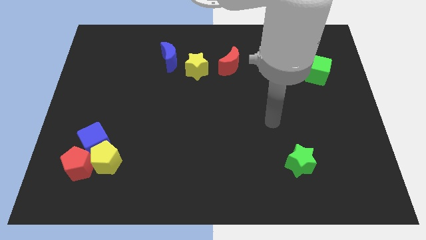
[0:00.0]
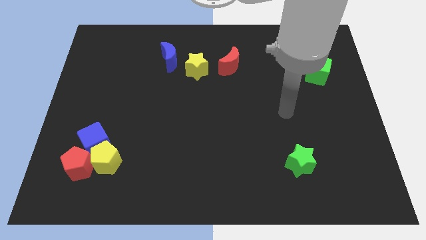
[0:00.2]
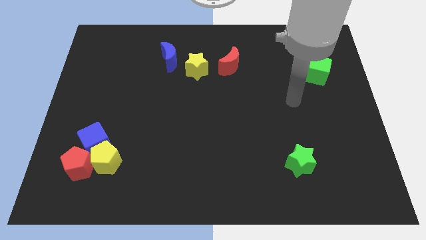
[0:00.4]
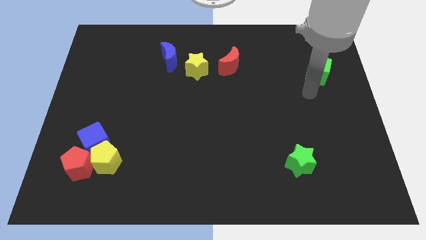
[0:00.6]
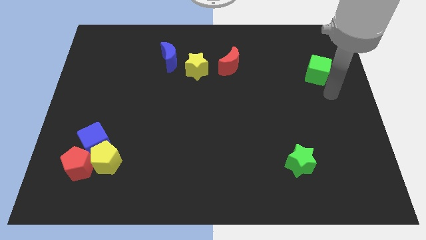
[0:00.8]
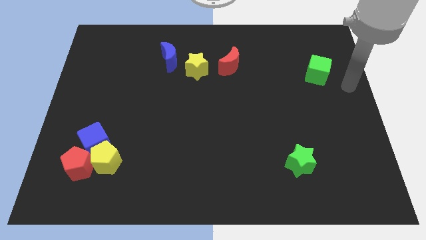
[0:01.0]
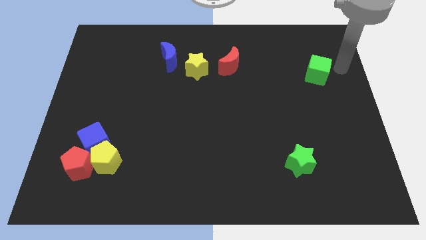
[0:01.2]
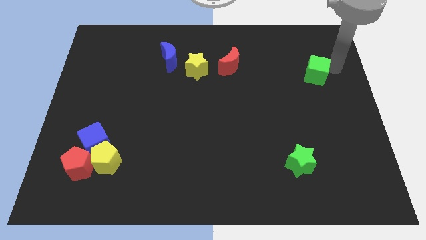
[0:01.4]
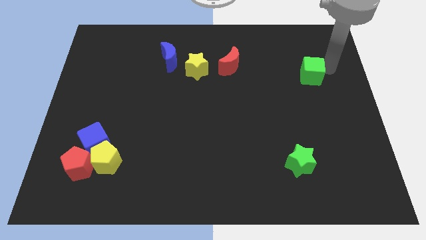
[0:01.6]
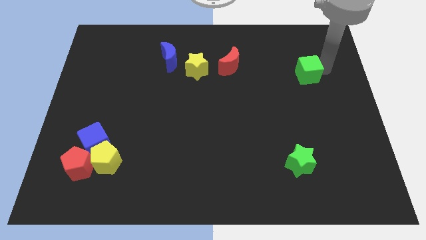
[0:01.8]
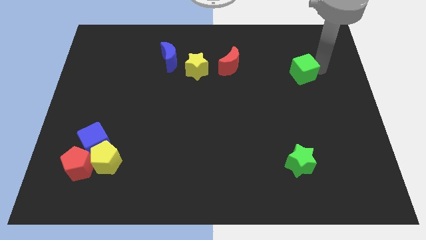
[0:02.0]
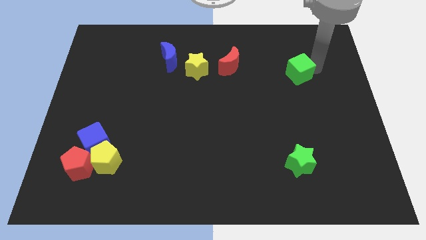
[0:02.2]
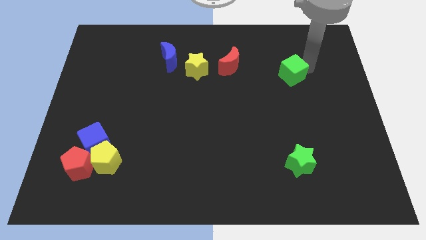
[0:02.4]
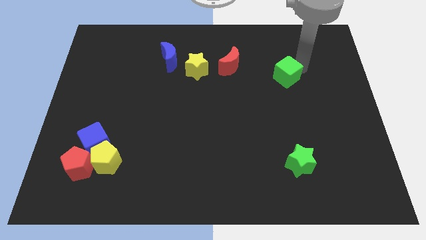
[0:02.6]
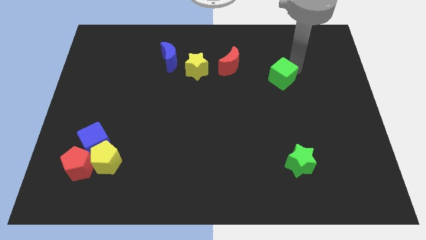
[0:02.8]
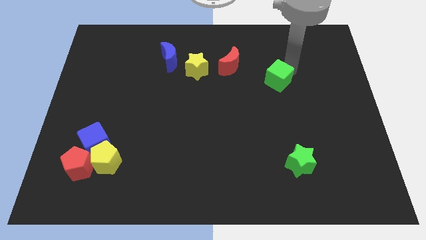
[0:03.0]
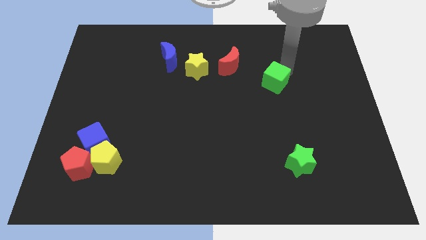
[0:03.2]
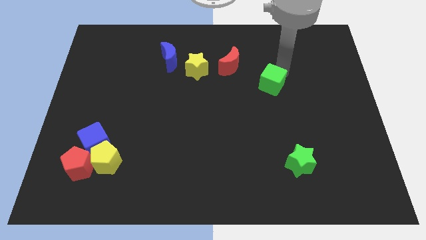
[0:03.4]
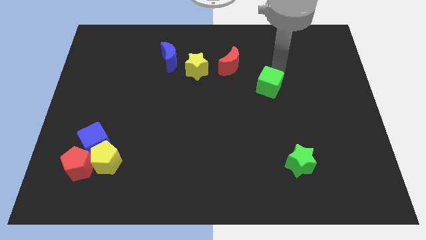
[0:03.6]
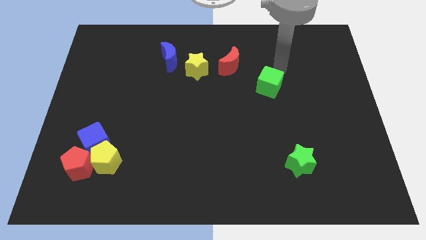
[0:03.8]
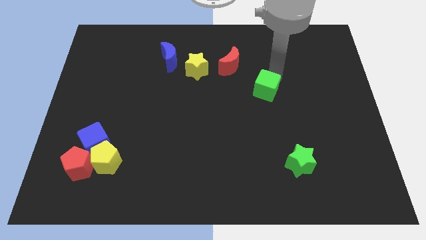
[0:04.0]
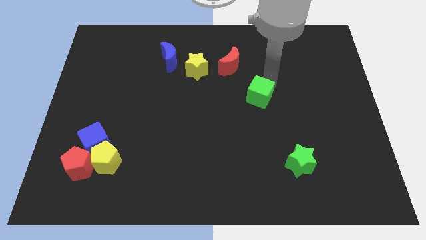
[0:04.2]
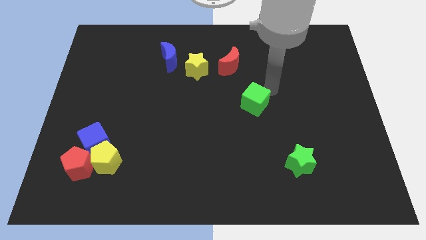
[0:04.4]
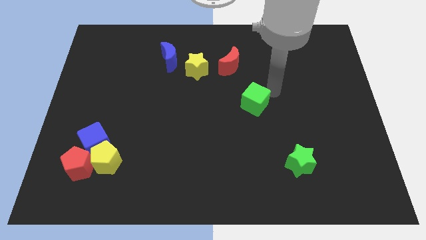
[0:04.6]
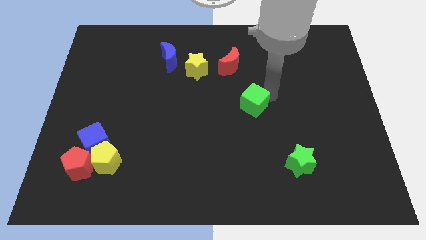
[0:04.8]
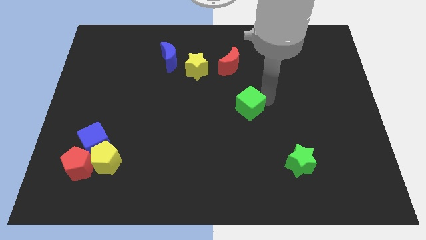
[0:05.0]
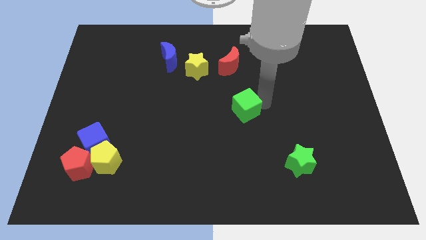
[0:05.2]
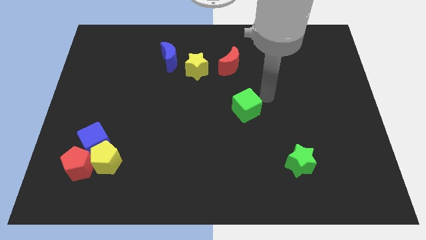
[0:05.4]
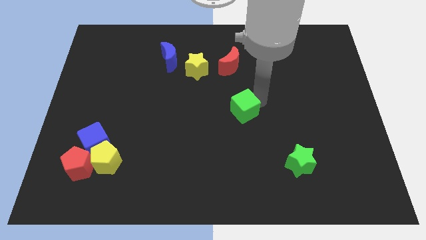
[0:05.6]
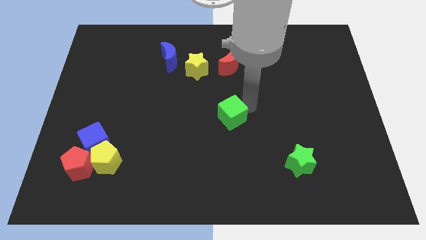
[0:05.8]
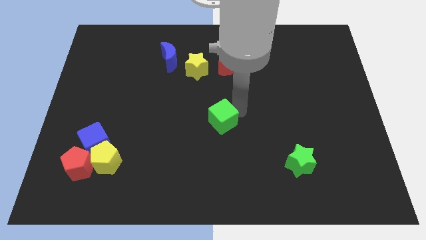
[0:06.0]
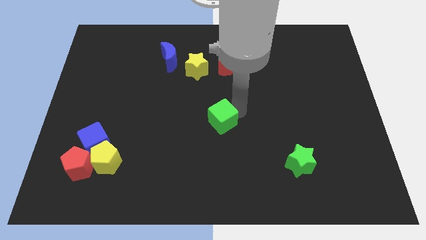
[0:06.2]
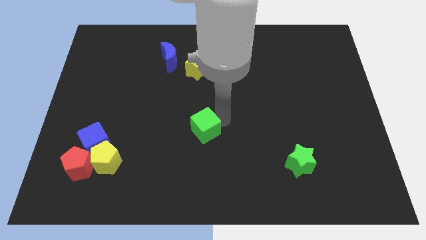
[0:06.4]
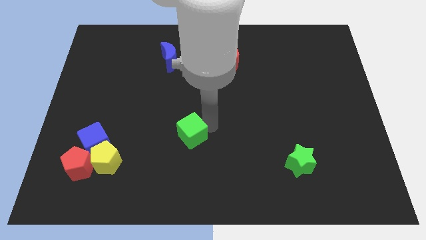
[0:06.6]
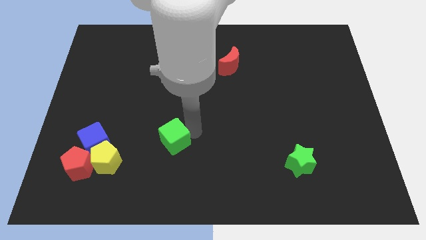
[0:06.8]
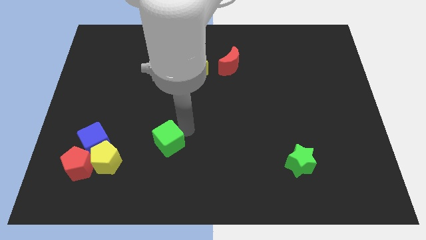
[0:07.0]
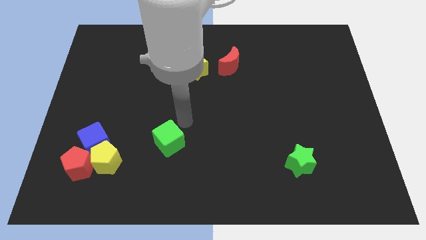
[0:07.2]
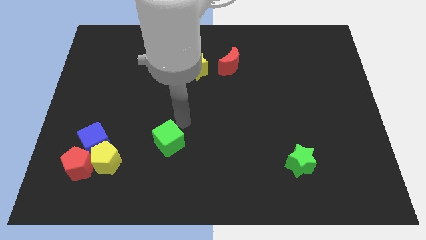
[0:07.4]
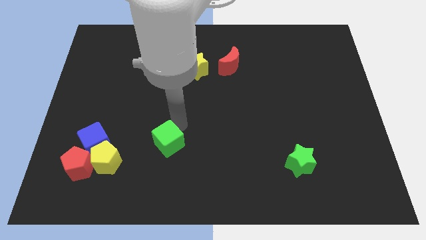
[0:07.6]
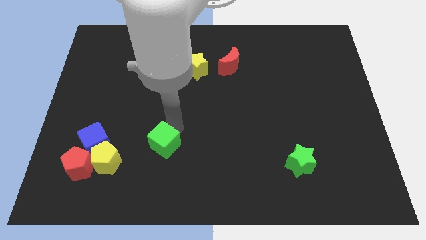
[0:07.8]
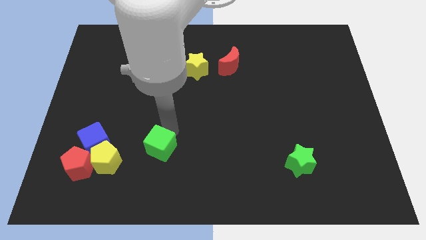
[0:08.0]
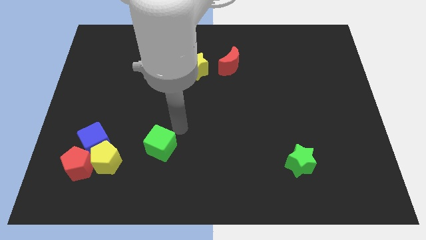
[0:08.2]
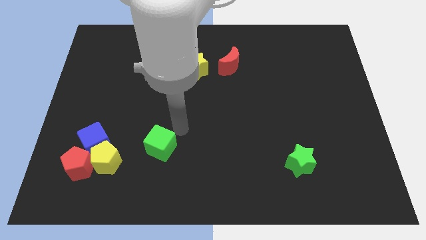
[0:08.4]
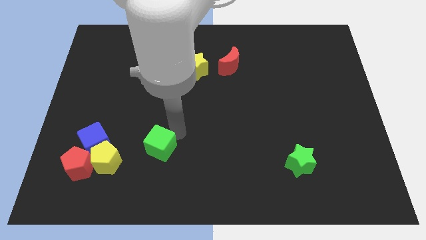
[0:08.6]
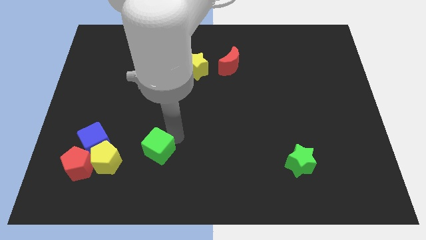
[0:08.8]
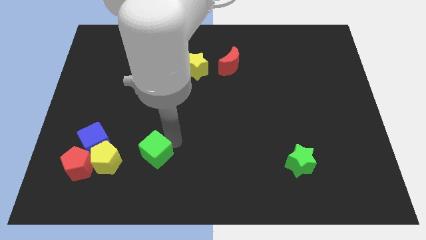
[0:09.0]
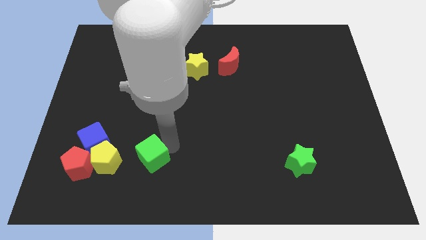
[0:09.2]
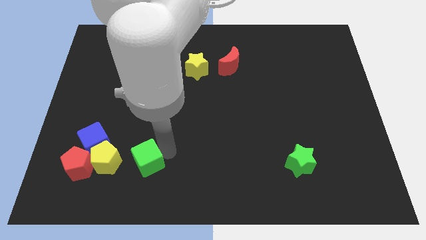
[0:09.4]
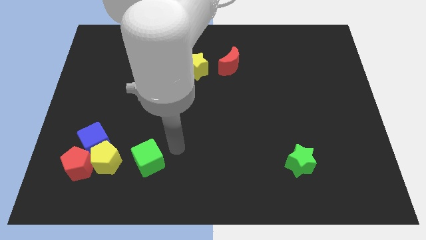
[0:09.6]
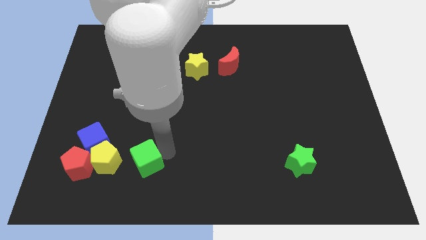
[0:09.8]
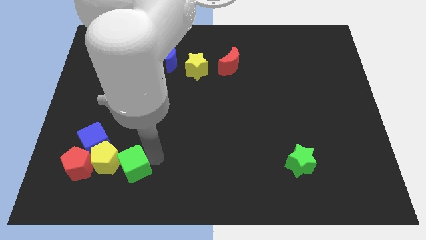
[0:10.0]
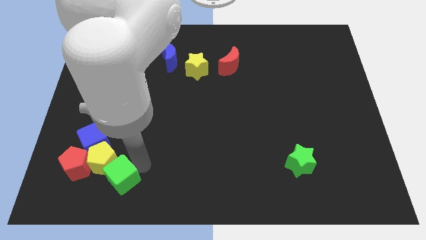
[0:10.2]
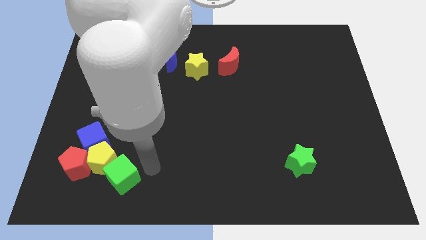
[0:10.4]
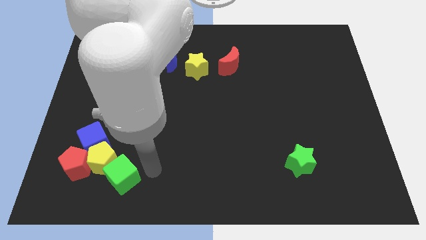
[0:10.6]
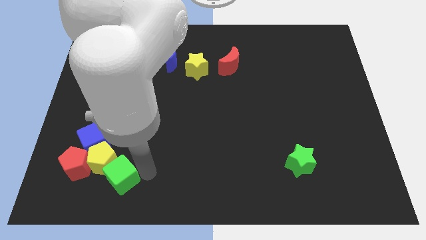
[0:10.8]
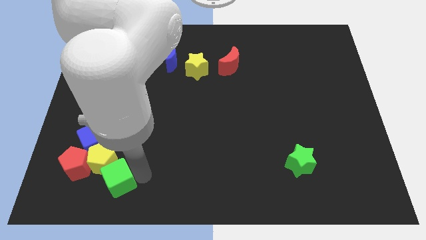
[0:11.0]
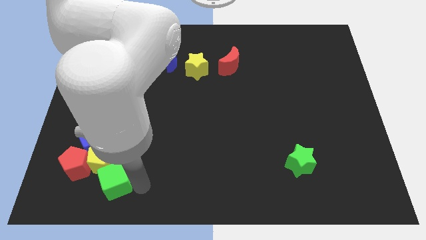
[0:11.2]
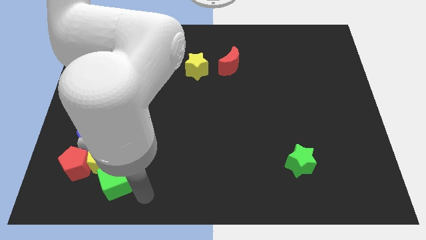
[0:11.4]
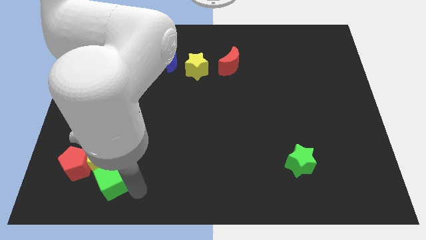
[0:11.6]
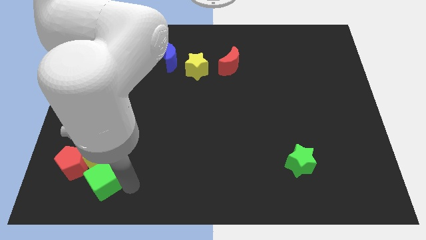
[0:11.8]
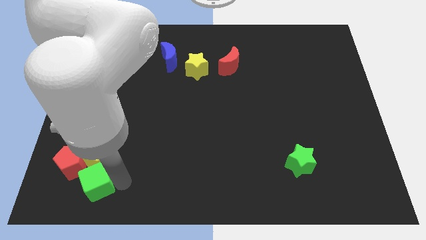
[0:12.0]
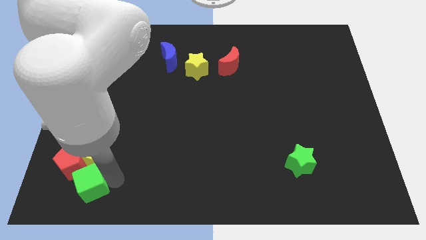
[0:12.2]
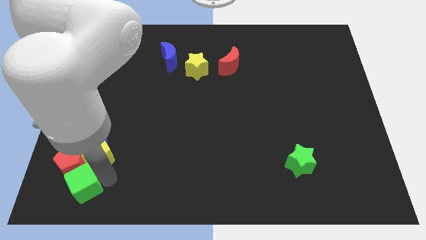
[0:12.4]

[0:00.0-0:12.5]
push the green cube next to the red pentagon

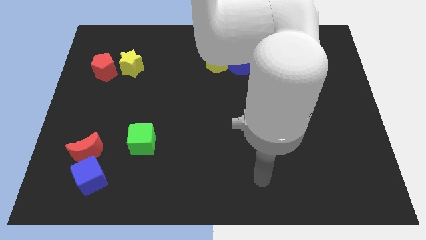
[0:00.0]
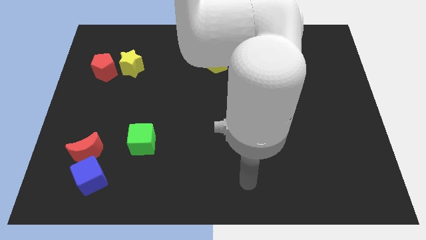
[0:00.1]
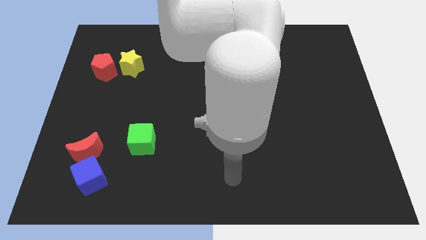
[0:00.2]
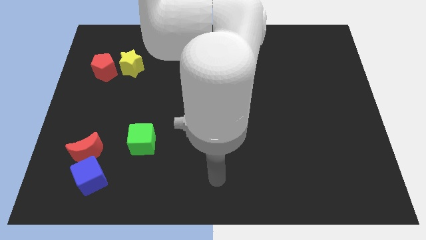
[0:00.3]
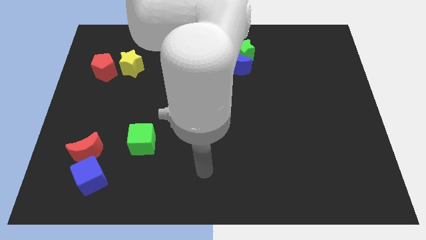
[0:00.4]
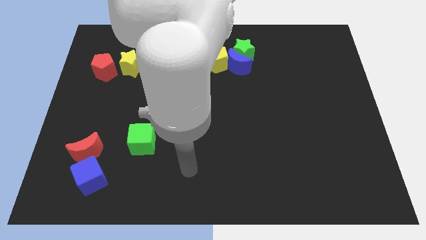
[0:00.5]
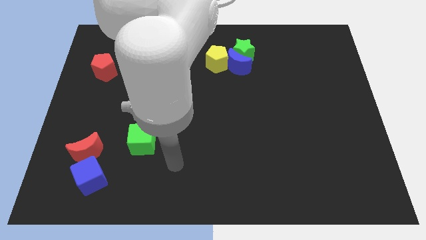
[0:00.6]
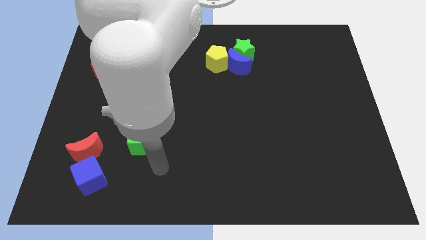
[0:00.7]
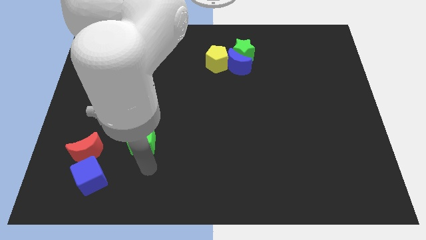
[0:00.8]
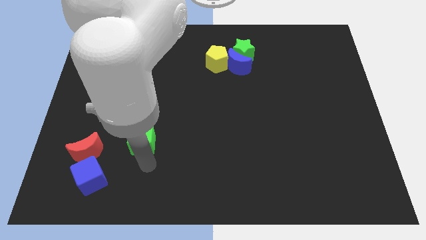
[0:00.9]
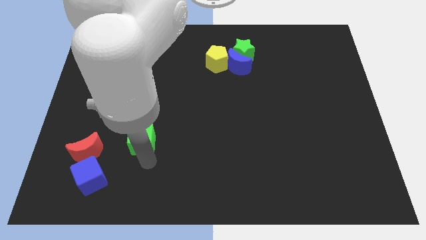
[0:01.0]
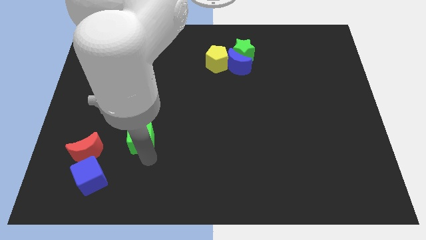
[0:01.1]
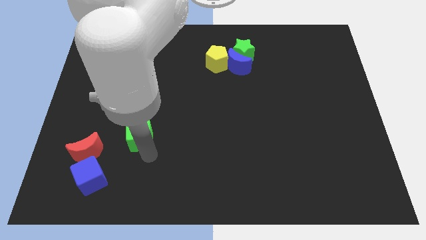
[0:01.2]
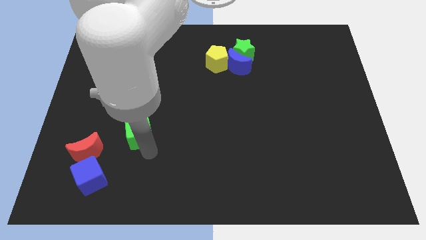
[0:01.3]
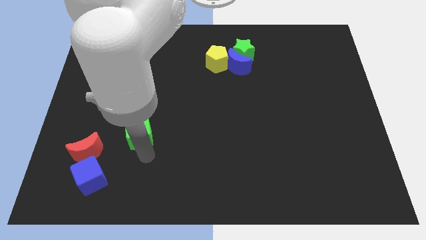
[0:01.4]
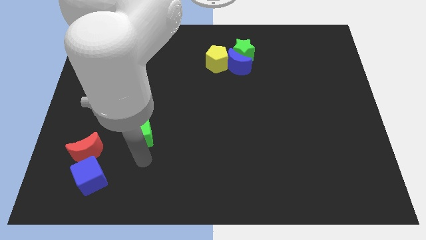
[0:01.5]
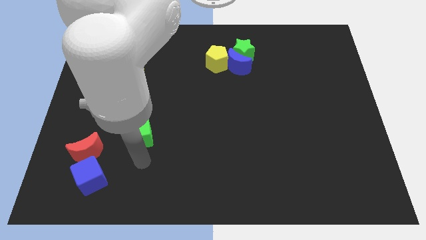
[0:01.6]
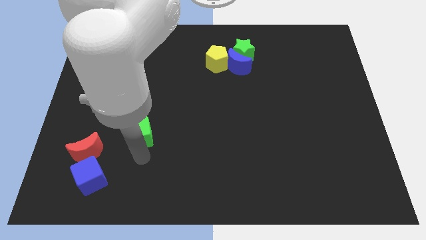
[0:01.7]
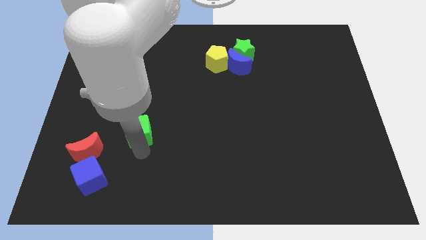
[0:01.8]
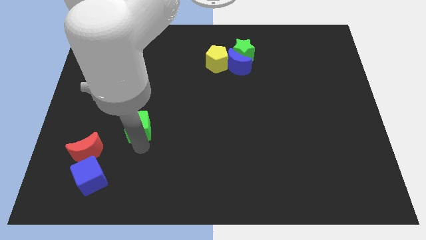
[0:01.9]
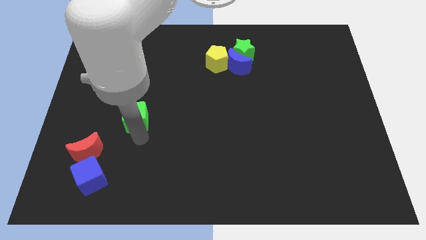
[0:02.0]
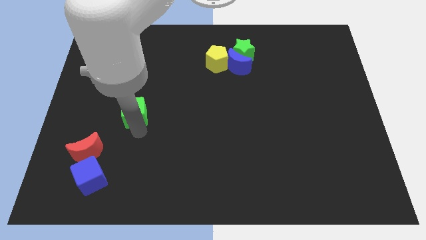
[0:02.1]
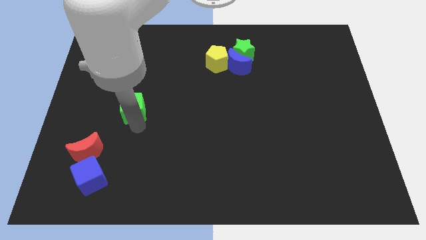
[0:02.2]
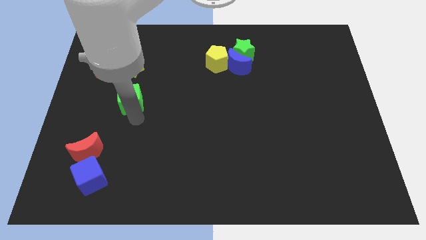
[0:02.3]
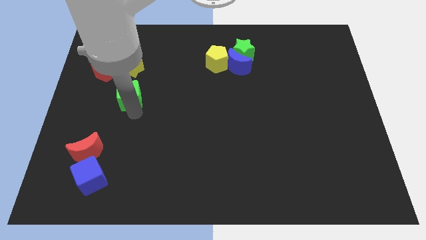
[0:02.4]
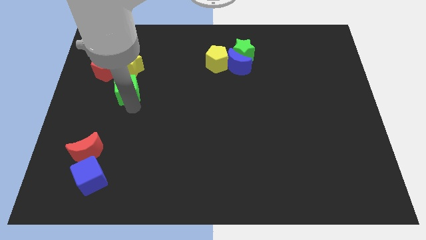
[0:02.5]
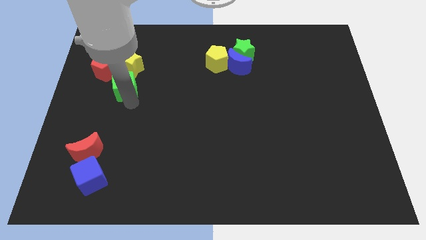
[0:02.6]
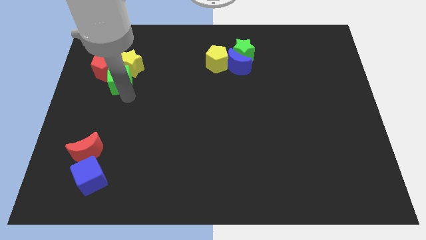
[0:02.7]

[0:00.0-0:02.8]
move the green cube next to the yellow star
